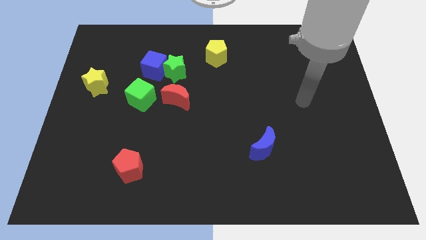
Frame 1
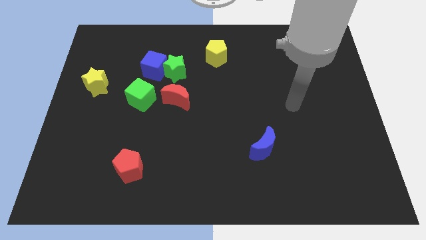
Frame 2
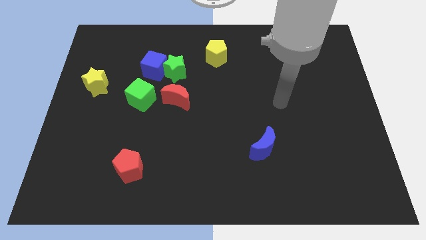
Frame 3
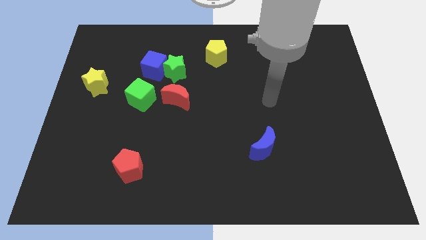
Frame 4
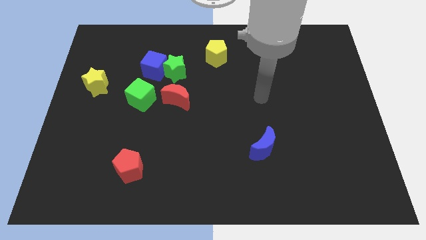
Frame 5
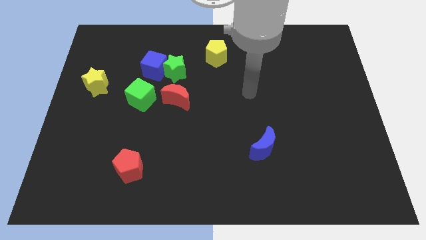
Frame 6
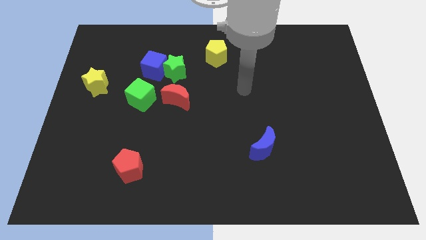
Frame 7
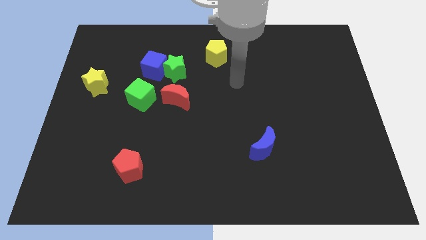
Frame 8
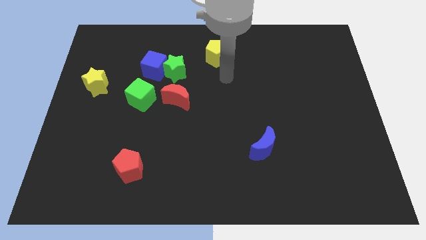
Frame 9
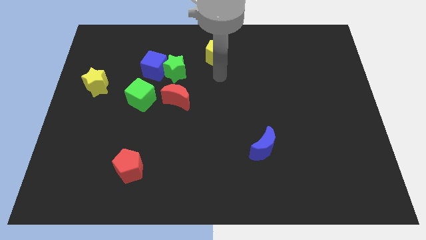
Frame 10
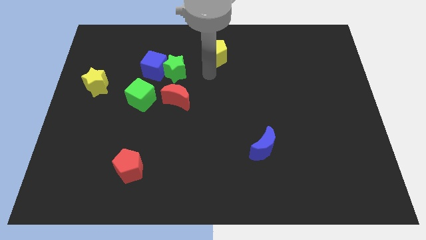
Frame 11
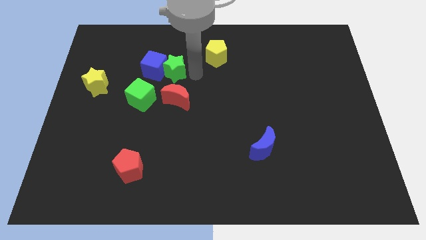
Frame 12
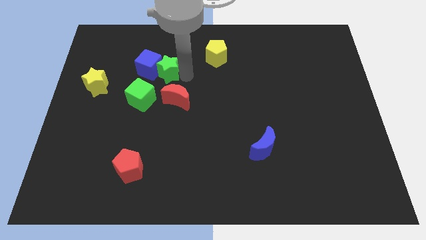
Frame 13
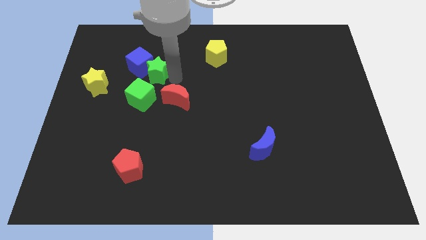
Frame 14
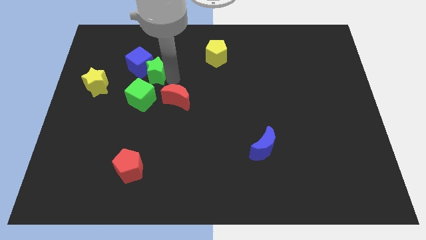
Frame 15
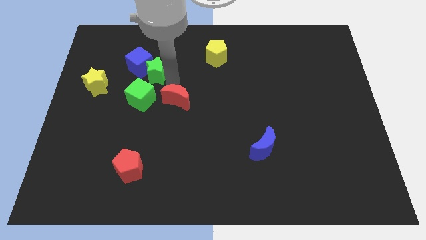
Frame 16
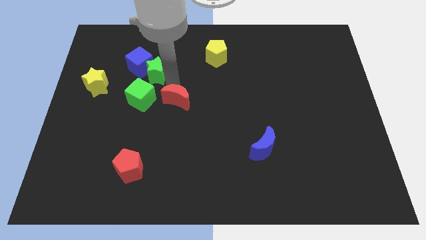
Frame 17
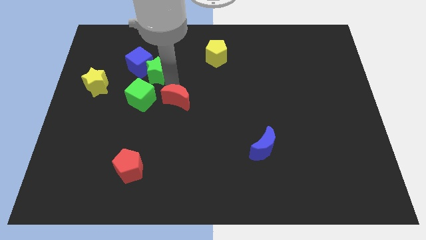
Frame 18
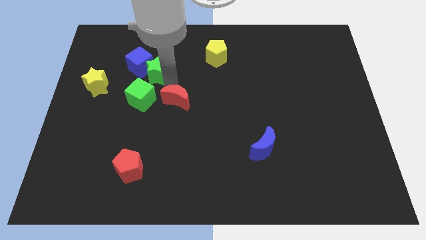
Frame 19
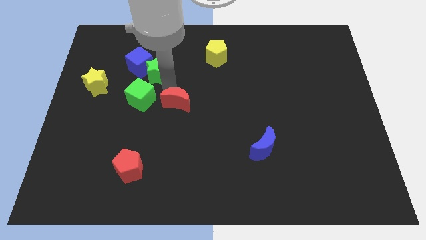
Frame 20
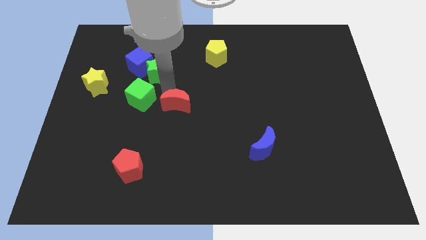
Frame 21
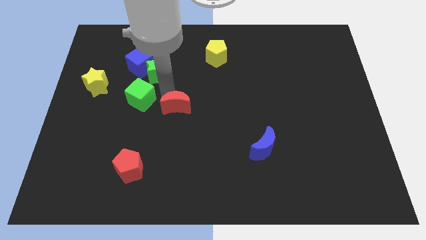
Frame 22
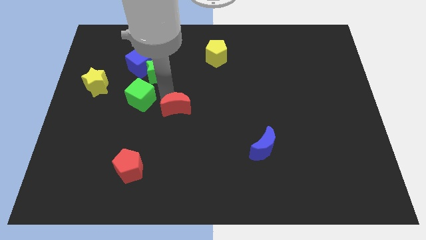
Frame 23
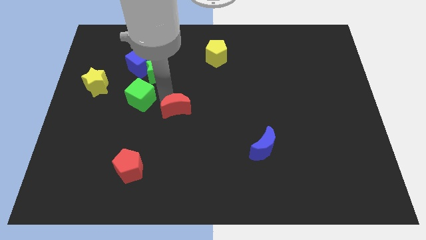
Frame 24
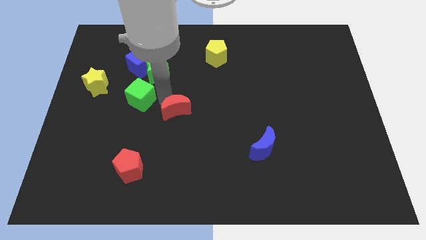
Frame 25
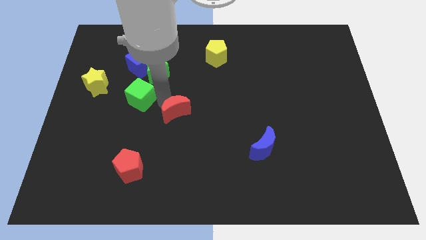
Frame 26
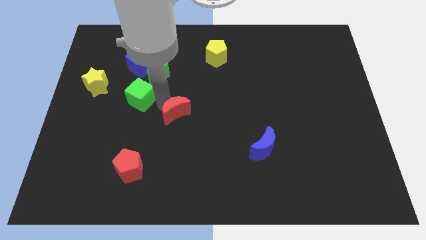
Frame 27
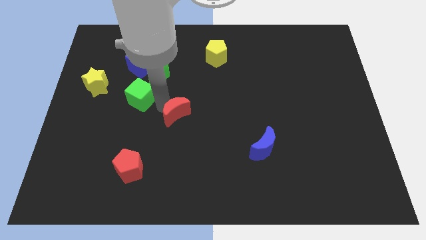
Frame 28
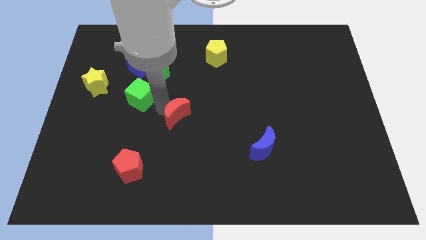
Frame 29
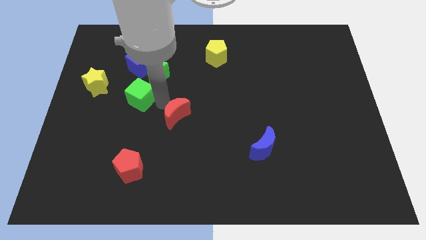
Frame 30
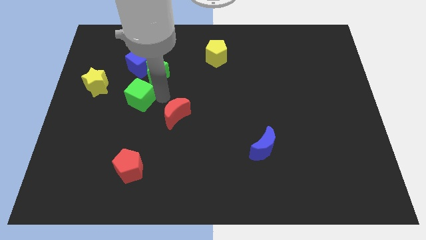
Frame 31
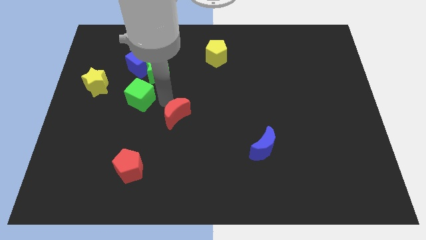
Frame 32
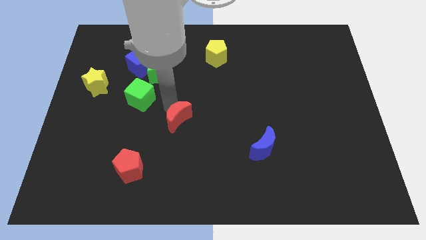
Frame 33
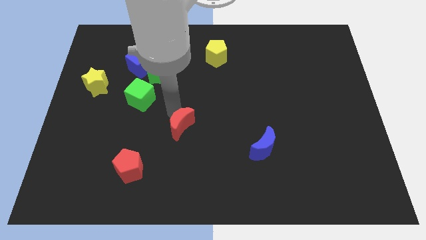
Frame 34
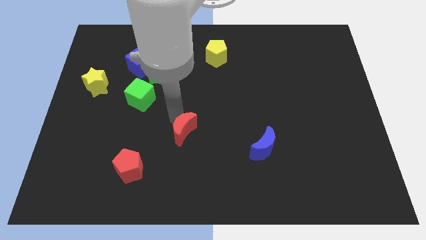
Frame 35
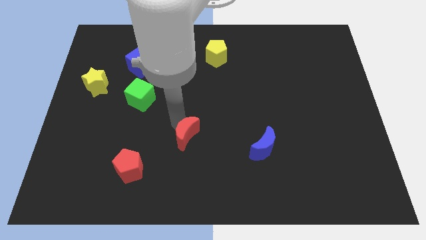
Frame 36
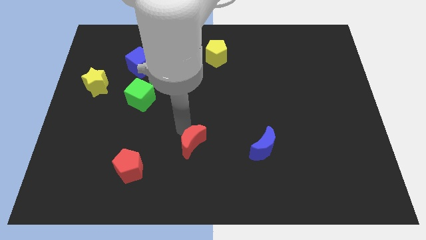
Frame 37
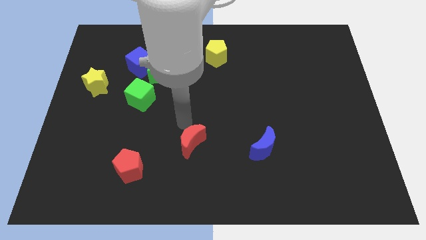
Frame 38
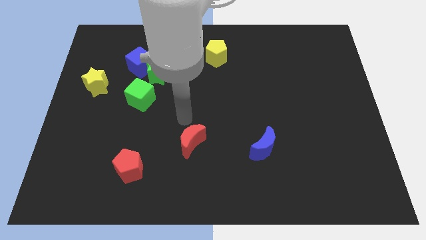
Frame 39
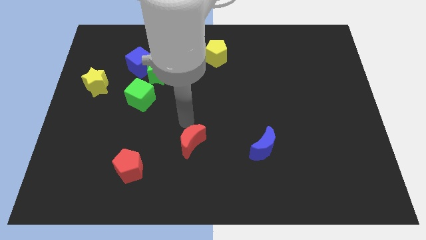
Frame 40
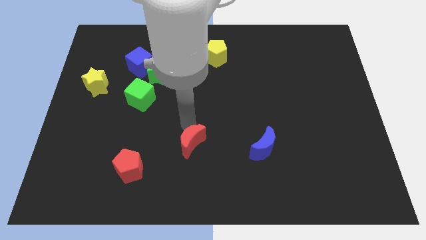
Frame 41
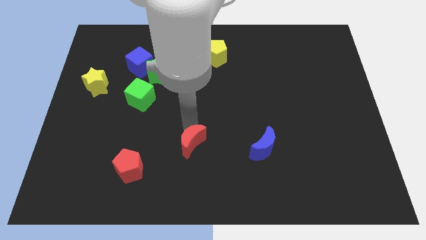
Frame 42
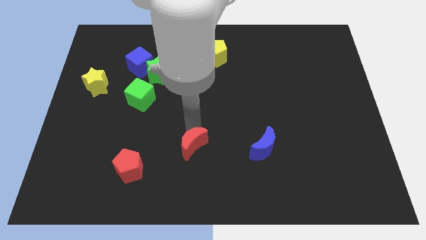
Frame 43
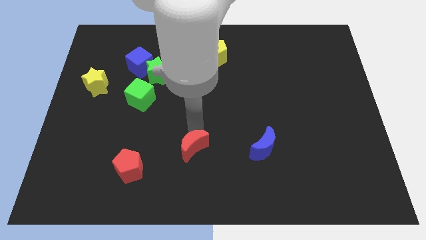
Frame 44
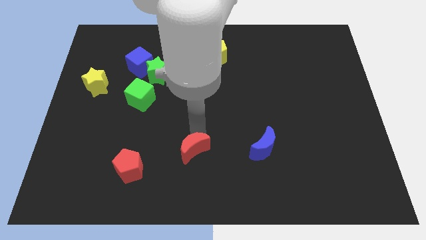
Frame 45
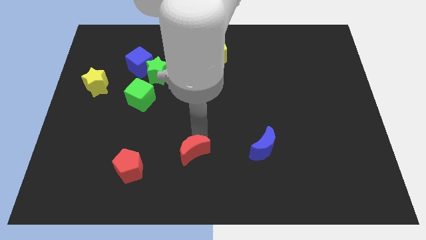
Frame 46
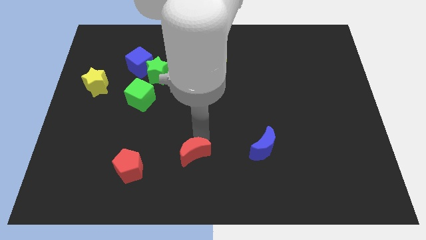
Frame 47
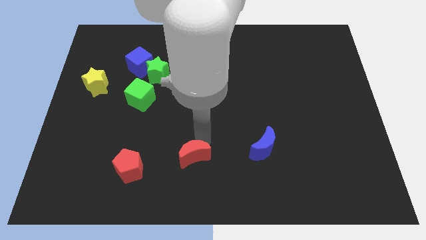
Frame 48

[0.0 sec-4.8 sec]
push the red moon to the bottom side

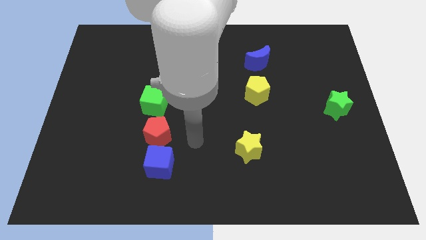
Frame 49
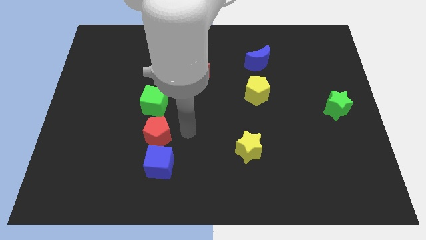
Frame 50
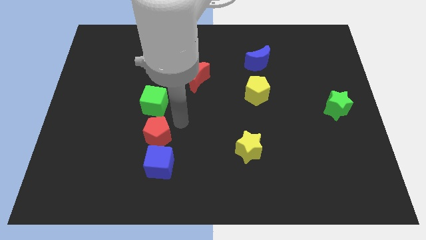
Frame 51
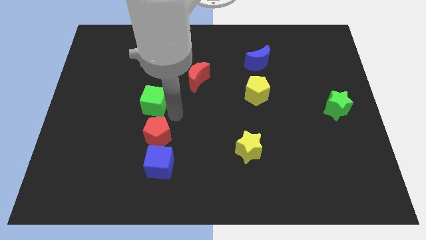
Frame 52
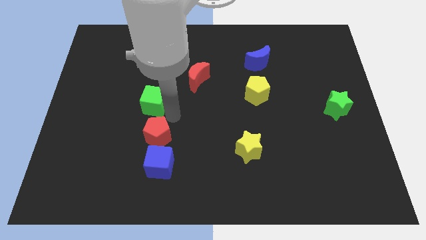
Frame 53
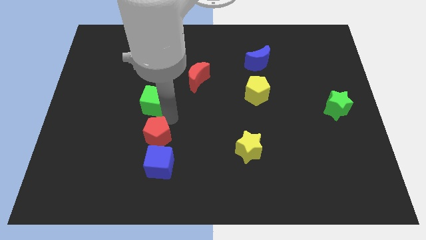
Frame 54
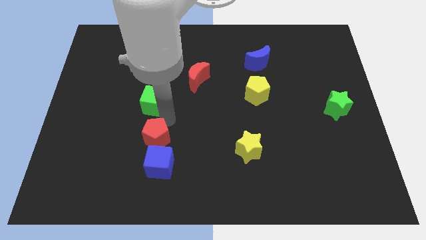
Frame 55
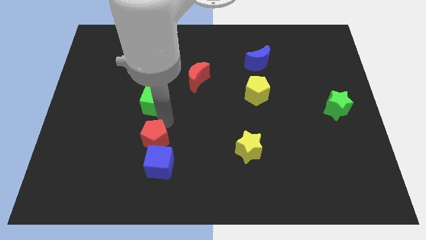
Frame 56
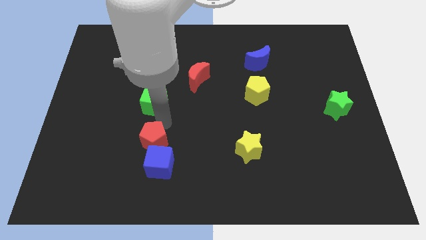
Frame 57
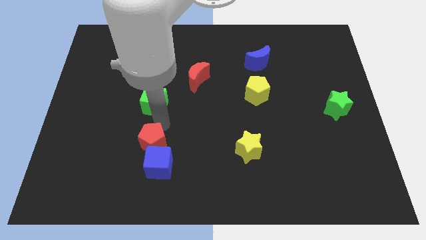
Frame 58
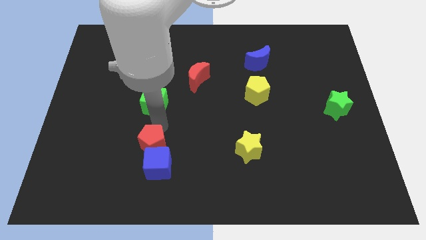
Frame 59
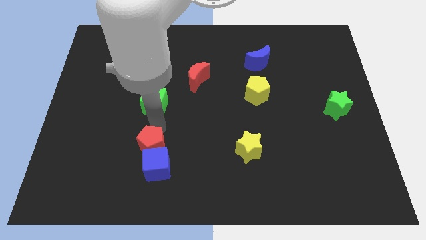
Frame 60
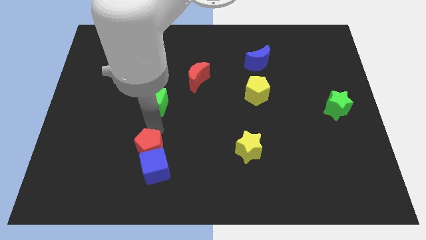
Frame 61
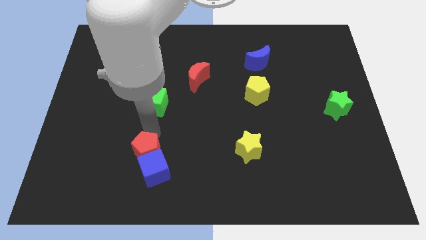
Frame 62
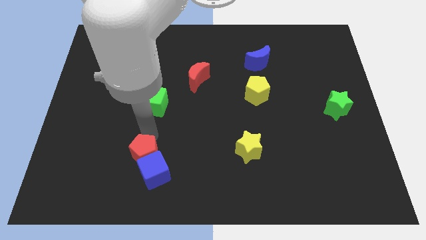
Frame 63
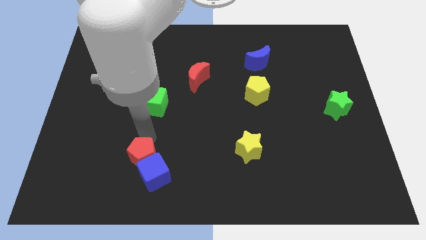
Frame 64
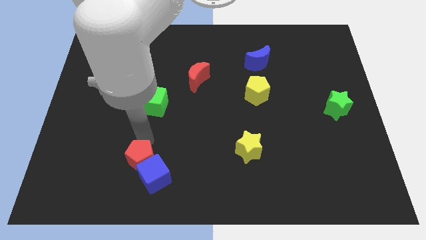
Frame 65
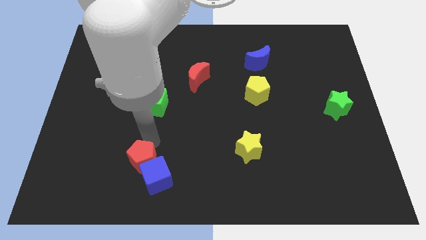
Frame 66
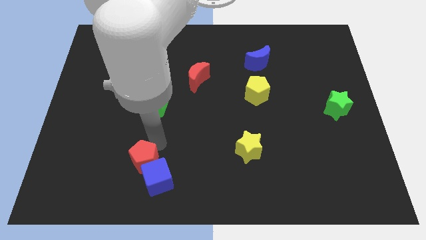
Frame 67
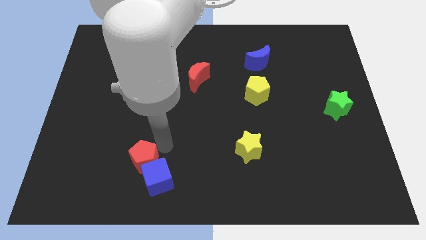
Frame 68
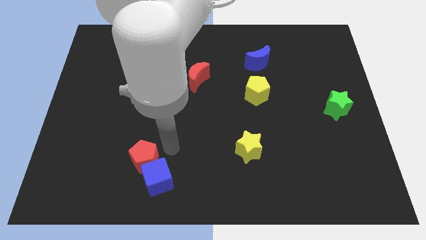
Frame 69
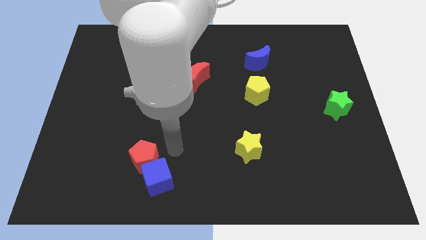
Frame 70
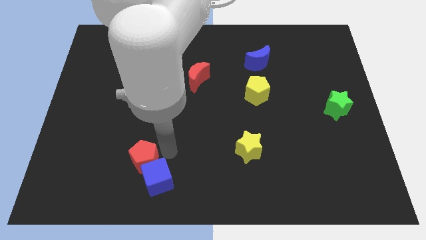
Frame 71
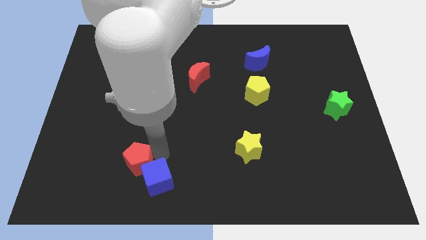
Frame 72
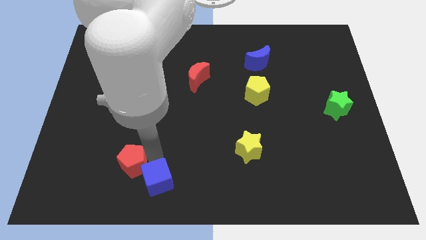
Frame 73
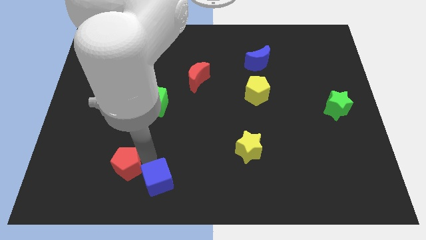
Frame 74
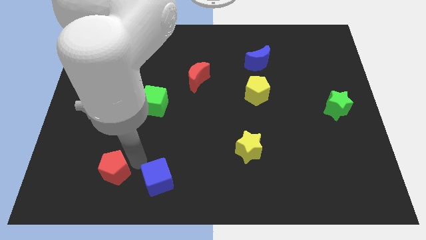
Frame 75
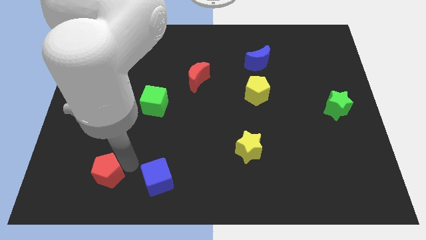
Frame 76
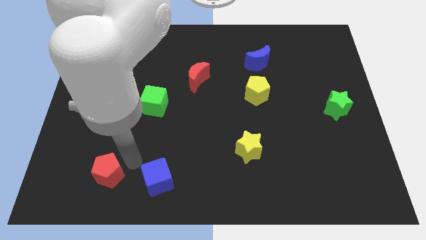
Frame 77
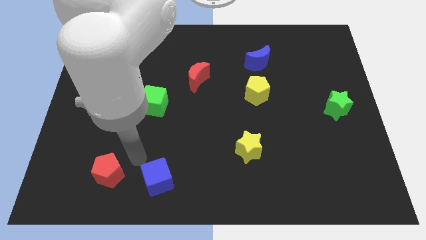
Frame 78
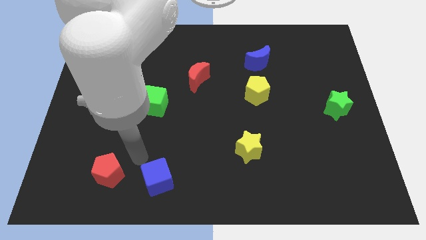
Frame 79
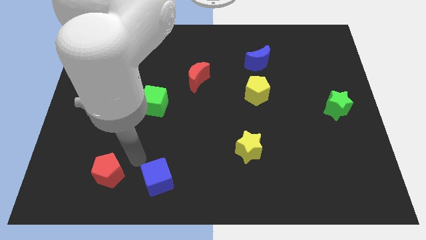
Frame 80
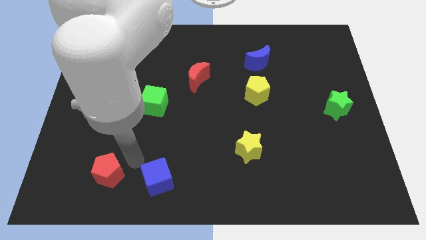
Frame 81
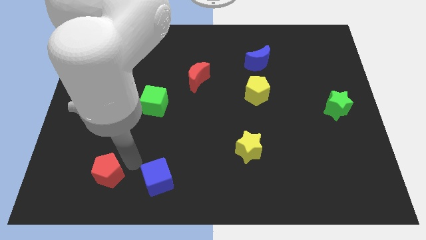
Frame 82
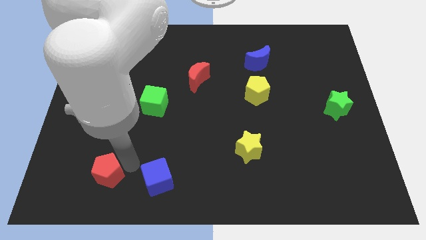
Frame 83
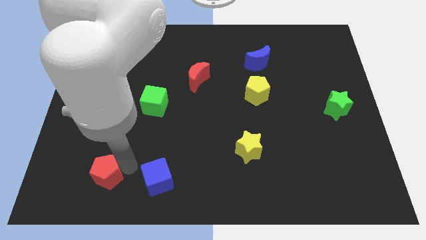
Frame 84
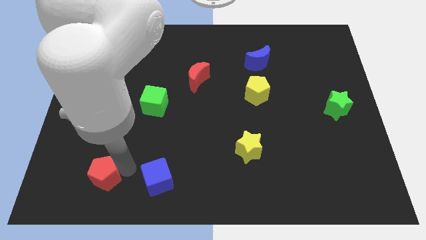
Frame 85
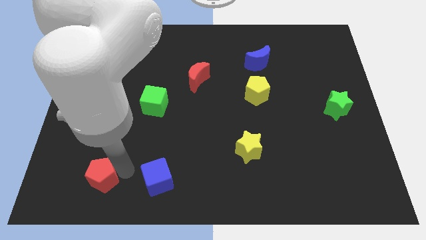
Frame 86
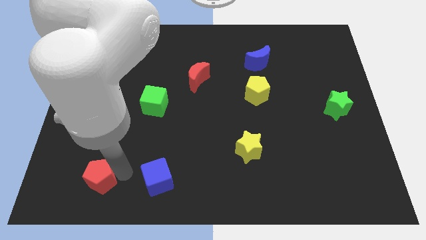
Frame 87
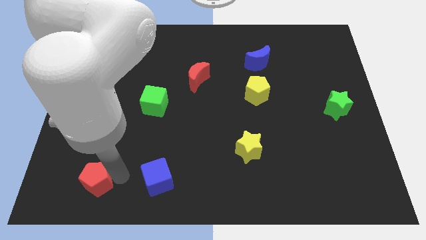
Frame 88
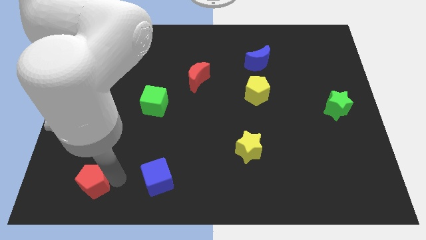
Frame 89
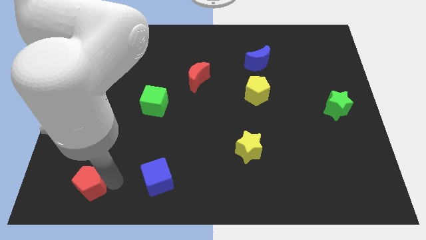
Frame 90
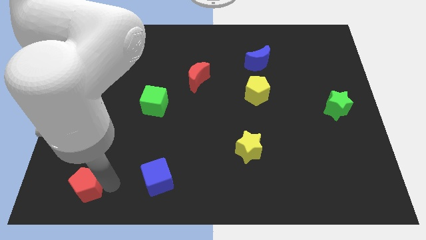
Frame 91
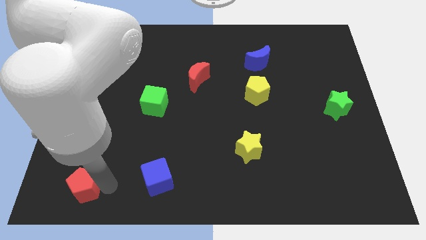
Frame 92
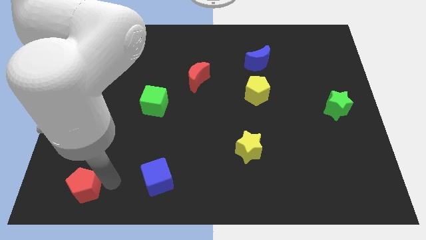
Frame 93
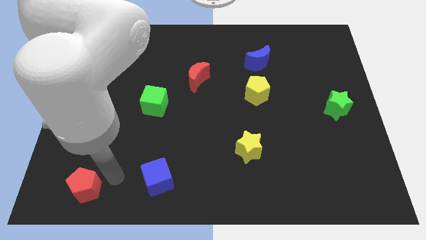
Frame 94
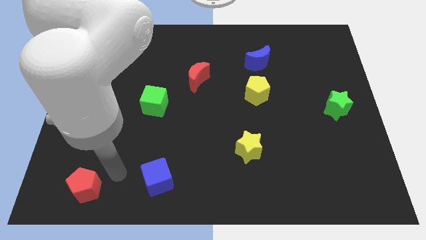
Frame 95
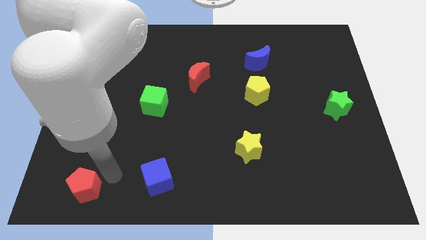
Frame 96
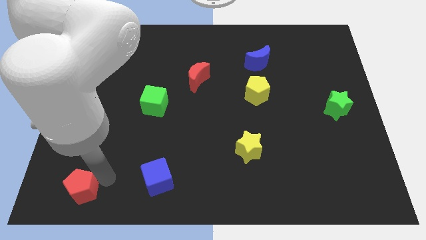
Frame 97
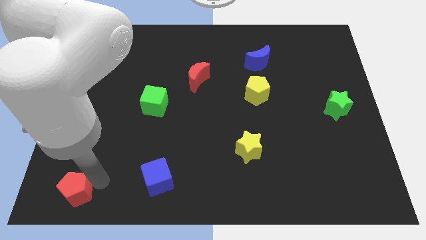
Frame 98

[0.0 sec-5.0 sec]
put the red pentagon to the bottom left corner
